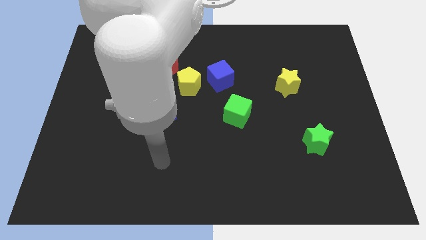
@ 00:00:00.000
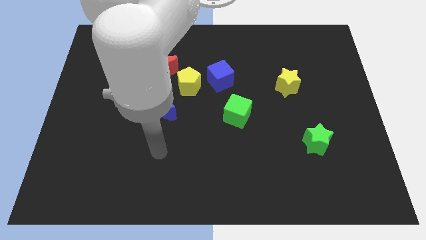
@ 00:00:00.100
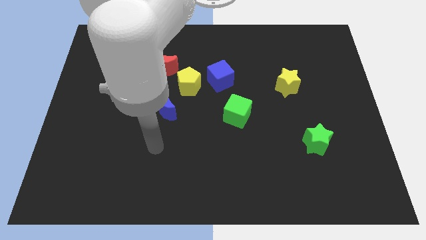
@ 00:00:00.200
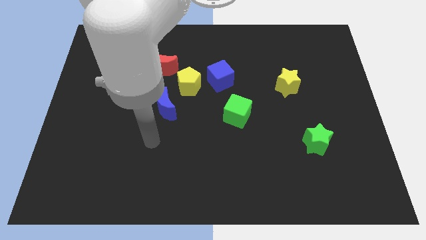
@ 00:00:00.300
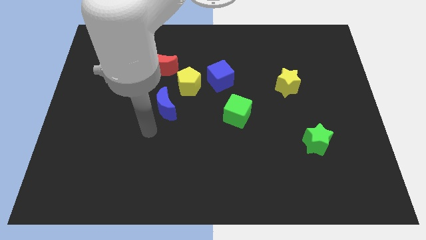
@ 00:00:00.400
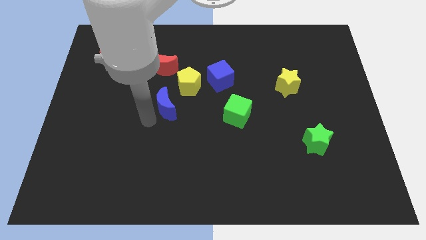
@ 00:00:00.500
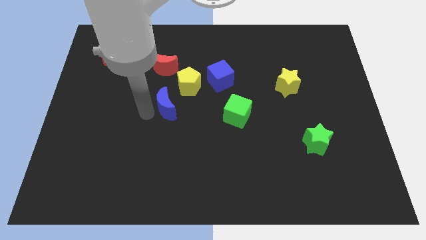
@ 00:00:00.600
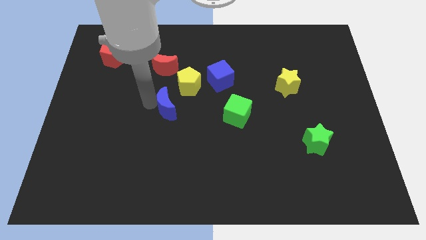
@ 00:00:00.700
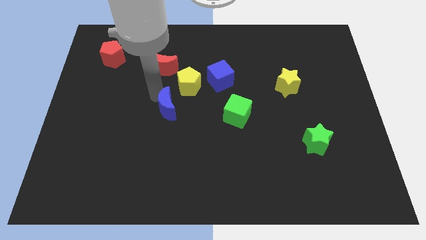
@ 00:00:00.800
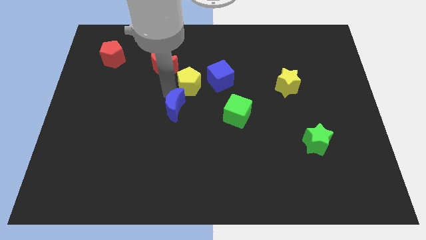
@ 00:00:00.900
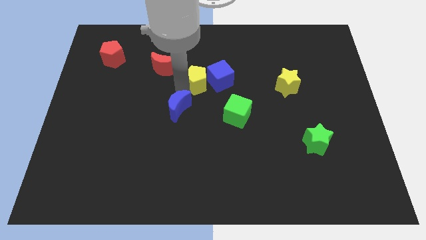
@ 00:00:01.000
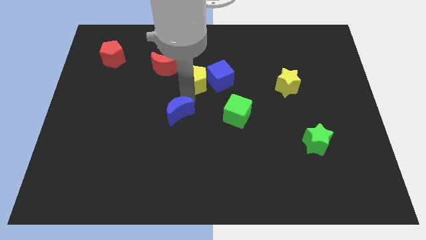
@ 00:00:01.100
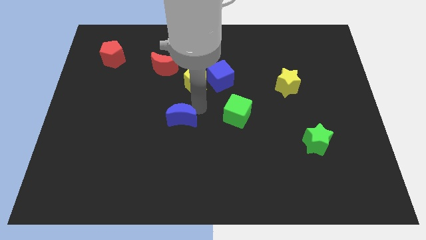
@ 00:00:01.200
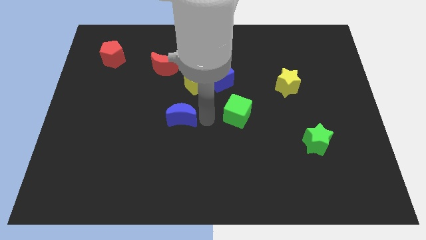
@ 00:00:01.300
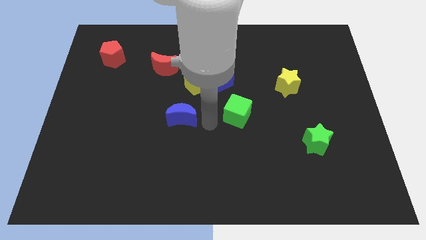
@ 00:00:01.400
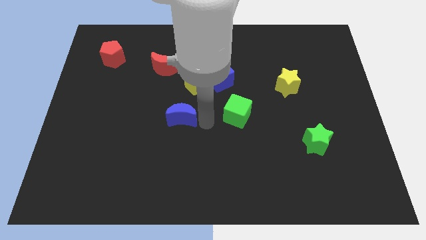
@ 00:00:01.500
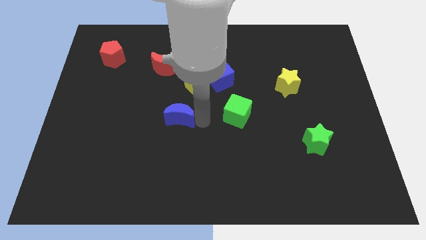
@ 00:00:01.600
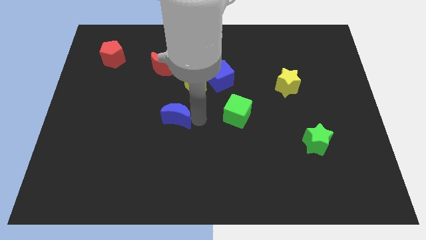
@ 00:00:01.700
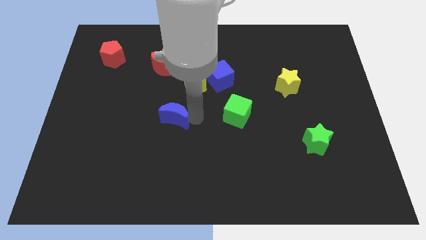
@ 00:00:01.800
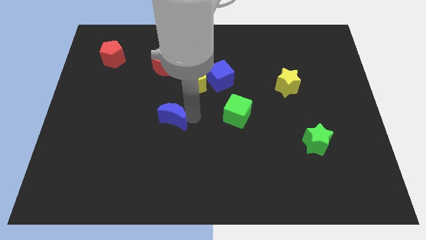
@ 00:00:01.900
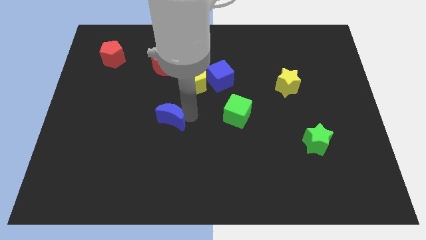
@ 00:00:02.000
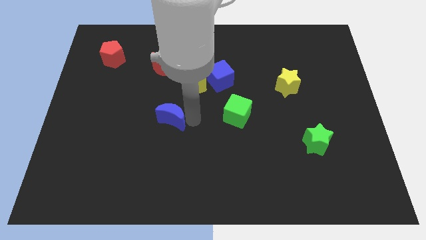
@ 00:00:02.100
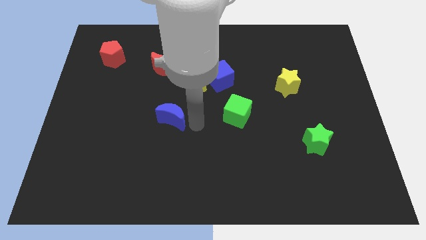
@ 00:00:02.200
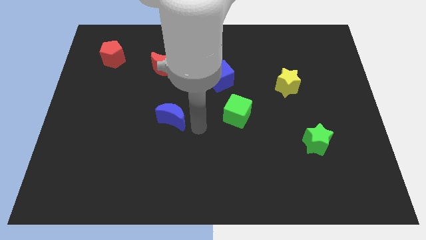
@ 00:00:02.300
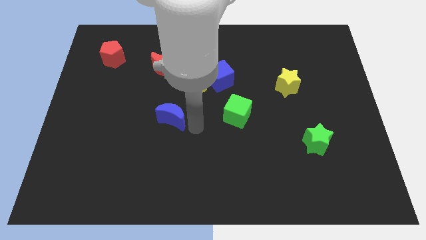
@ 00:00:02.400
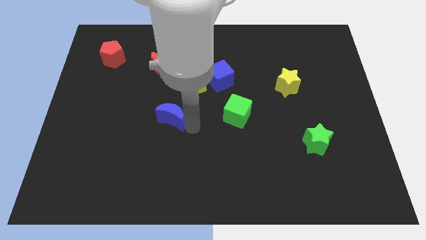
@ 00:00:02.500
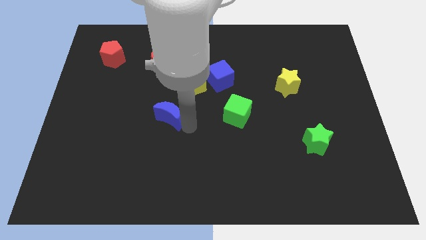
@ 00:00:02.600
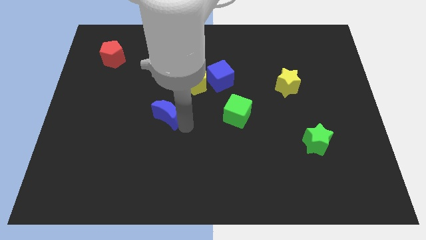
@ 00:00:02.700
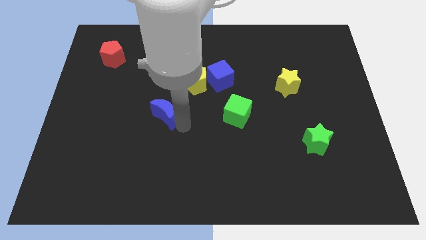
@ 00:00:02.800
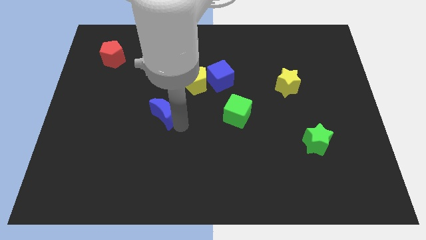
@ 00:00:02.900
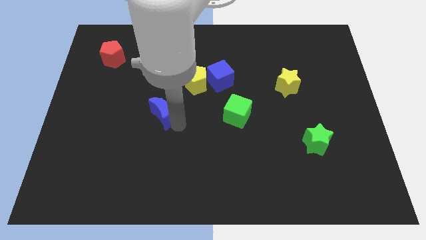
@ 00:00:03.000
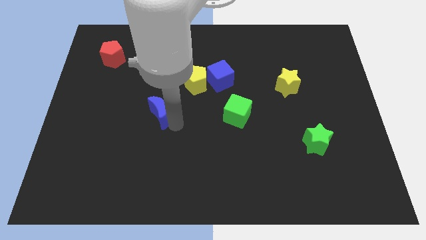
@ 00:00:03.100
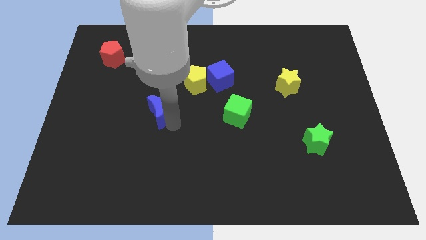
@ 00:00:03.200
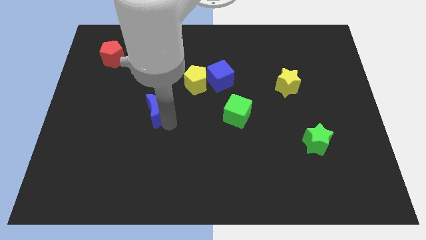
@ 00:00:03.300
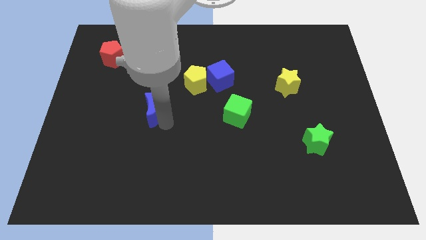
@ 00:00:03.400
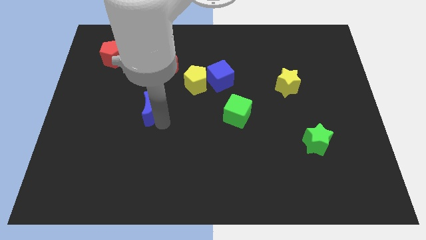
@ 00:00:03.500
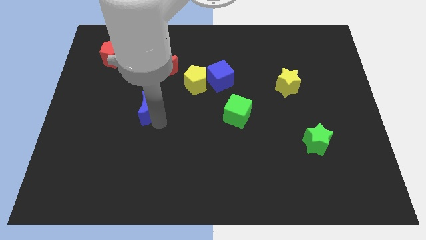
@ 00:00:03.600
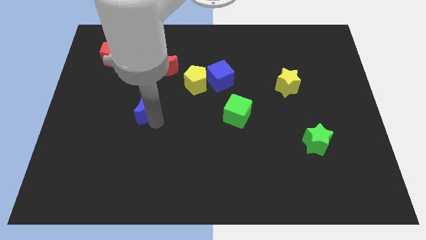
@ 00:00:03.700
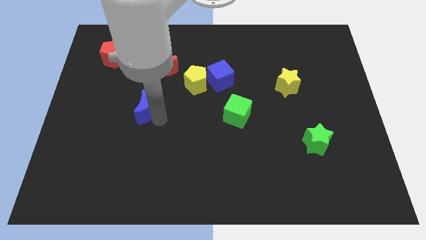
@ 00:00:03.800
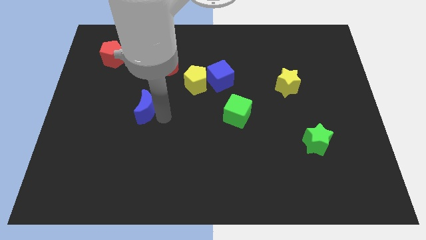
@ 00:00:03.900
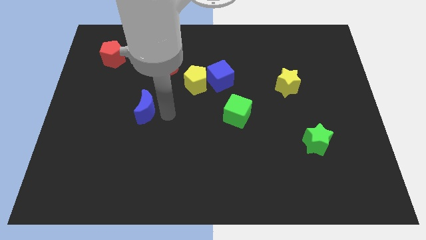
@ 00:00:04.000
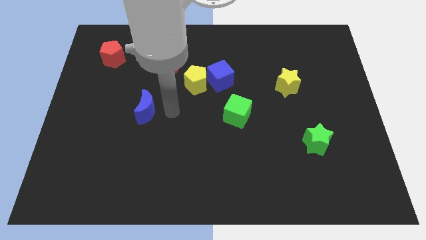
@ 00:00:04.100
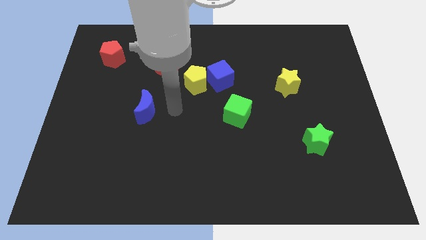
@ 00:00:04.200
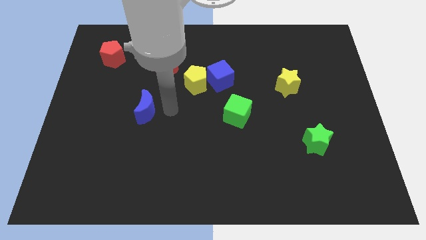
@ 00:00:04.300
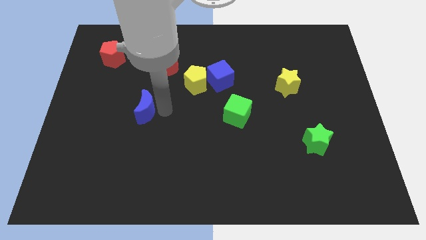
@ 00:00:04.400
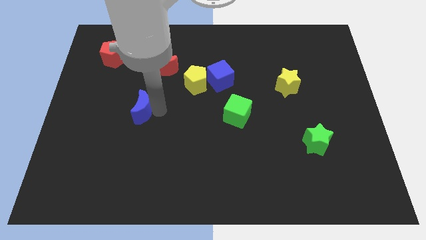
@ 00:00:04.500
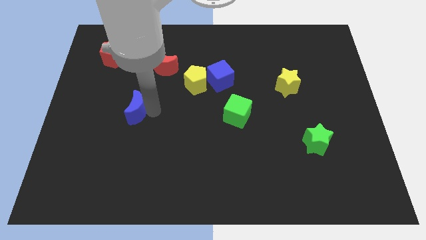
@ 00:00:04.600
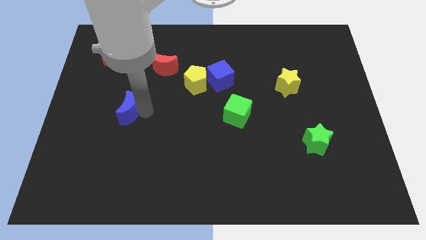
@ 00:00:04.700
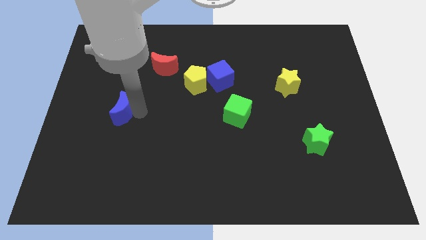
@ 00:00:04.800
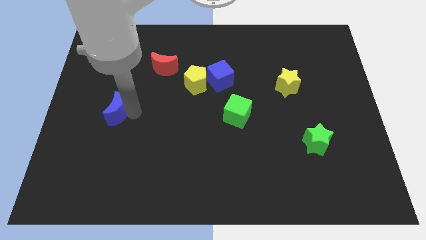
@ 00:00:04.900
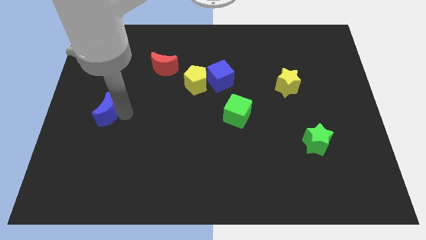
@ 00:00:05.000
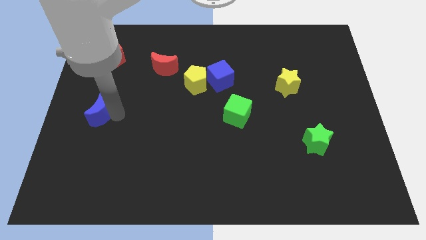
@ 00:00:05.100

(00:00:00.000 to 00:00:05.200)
push the blue moon to the left side

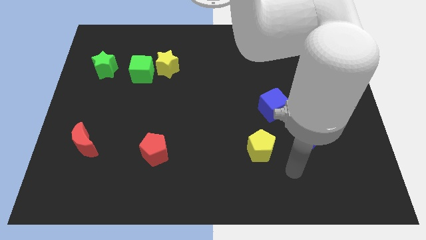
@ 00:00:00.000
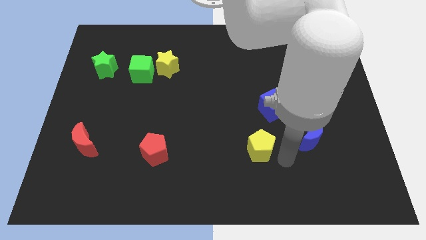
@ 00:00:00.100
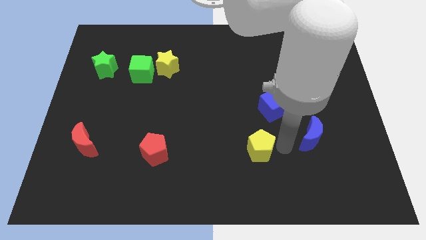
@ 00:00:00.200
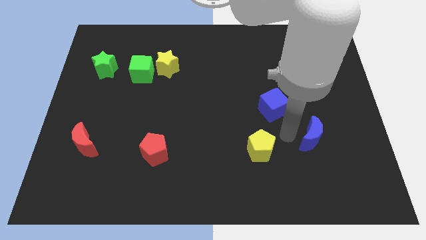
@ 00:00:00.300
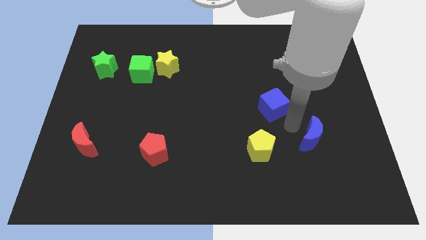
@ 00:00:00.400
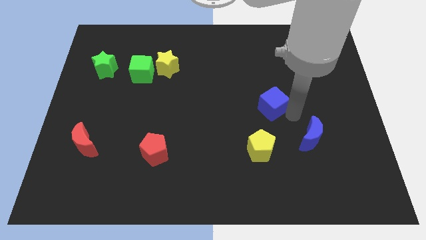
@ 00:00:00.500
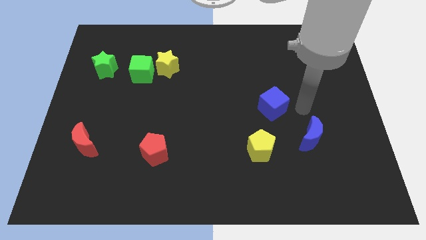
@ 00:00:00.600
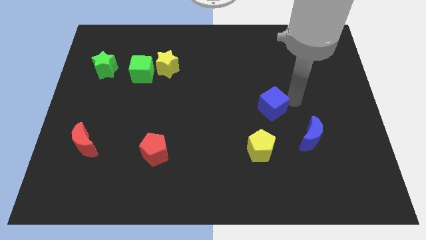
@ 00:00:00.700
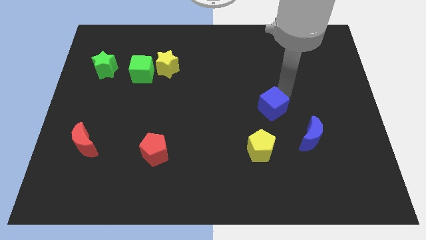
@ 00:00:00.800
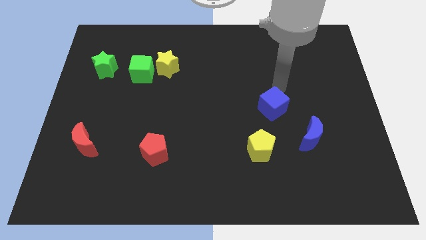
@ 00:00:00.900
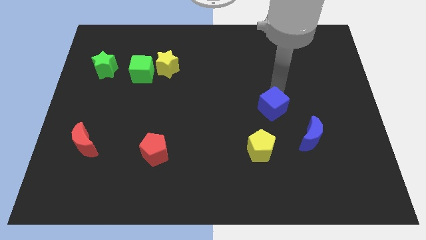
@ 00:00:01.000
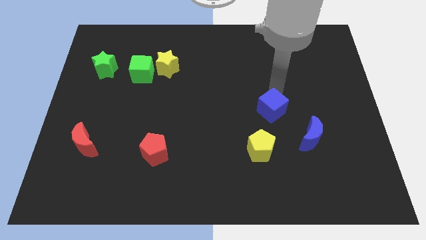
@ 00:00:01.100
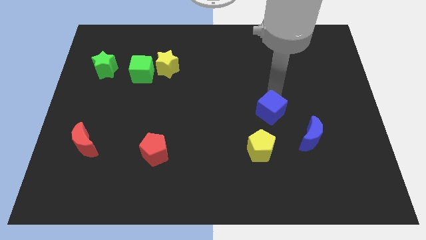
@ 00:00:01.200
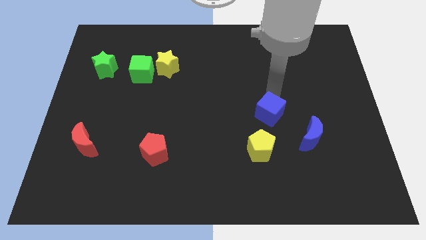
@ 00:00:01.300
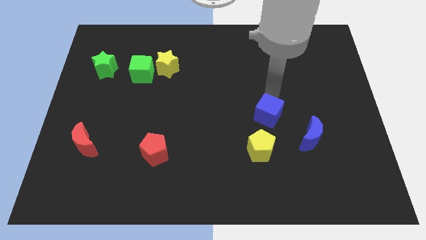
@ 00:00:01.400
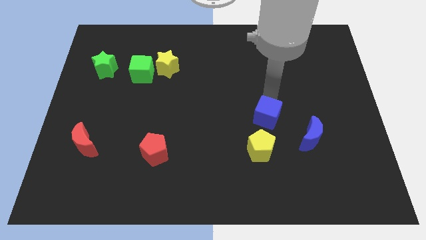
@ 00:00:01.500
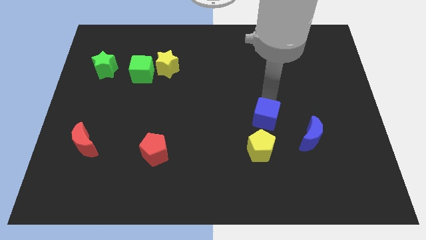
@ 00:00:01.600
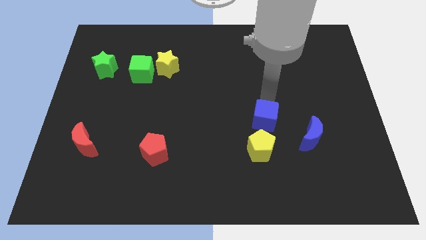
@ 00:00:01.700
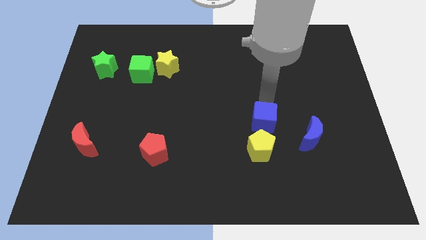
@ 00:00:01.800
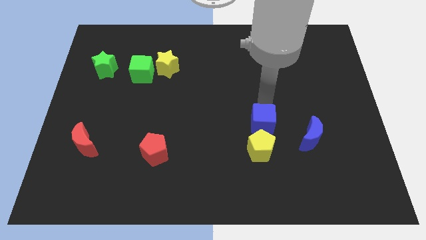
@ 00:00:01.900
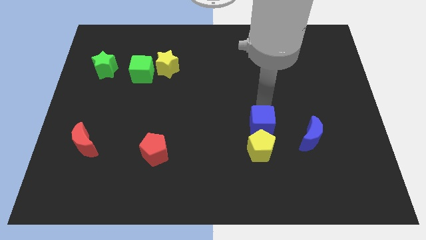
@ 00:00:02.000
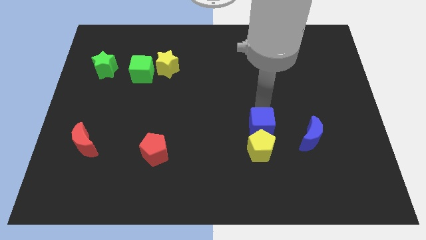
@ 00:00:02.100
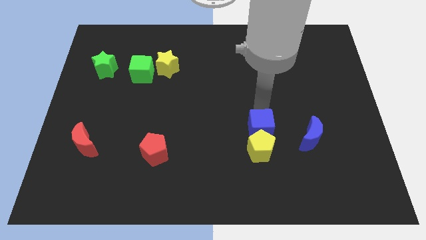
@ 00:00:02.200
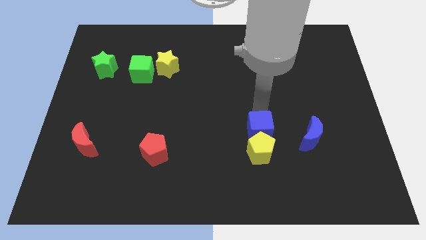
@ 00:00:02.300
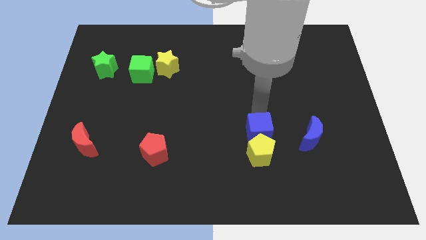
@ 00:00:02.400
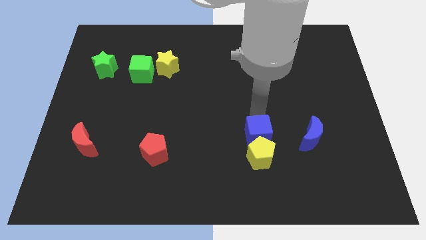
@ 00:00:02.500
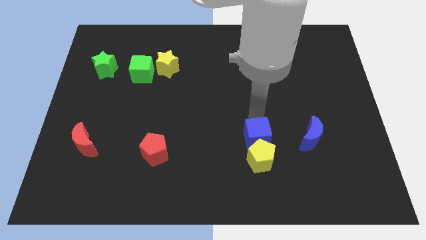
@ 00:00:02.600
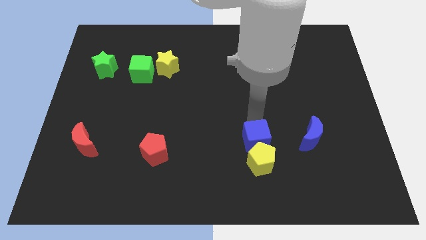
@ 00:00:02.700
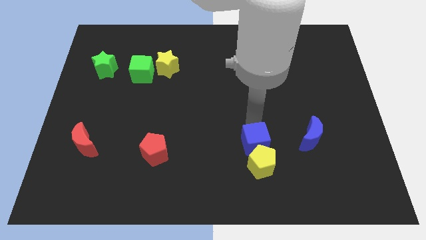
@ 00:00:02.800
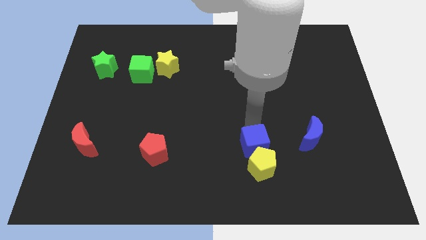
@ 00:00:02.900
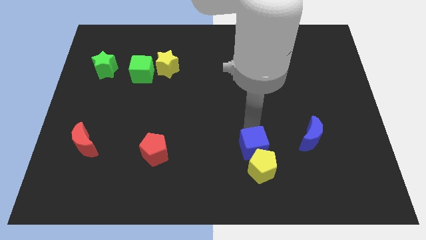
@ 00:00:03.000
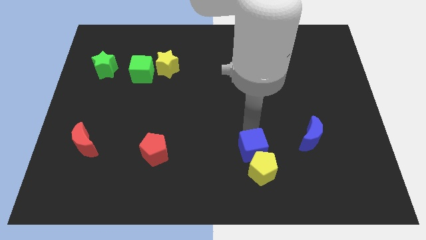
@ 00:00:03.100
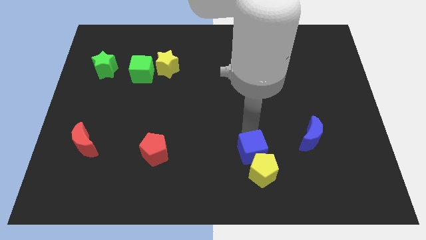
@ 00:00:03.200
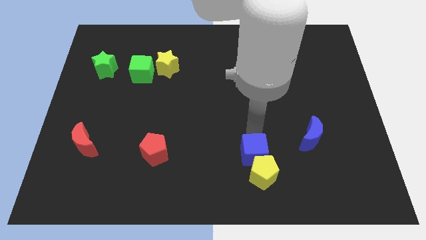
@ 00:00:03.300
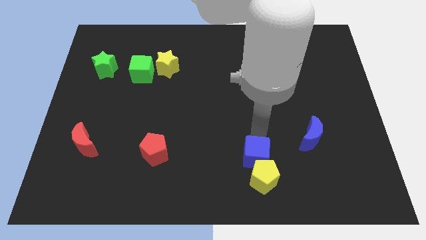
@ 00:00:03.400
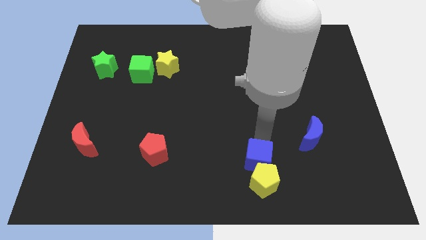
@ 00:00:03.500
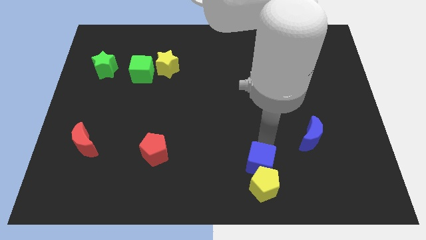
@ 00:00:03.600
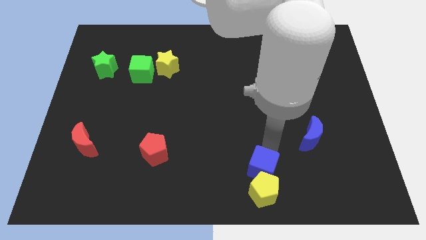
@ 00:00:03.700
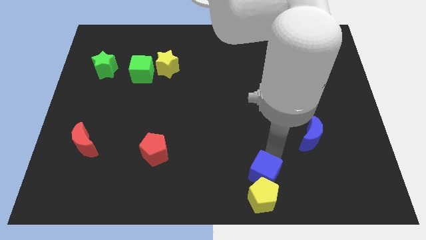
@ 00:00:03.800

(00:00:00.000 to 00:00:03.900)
slide the blue cube to the bottom
